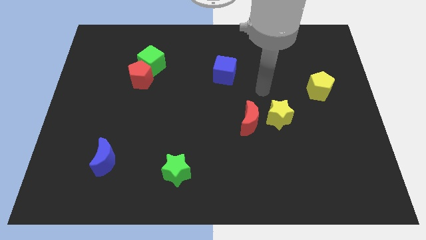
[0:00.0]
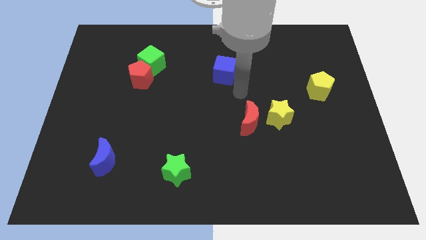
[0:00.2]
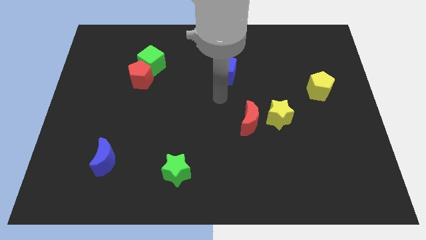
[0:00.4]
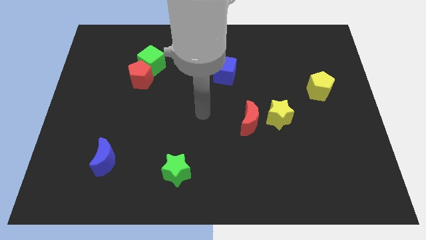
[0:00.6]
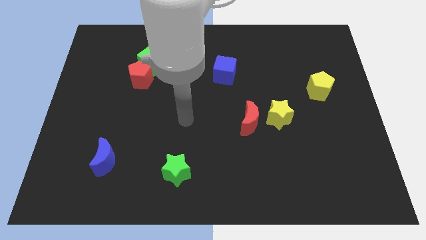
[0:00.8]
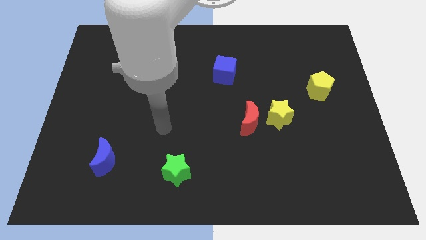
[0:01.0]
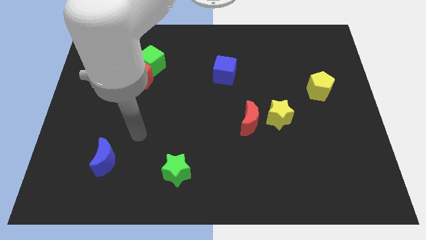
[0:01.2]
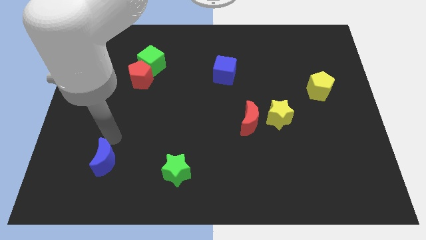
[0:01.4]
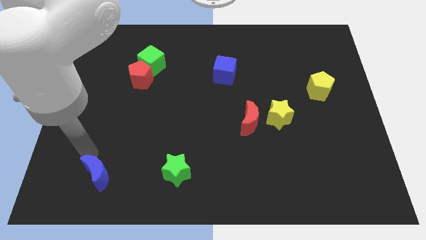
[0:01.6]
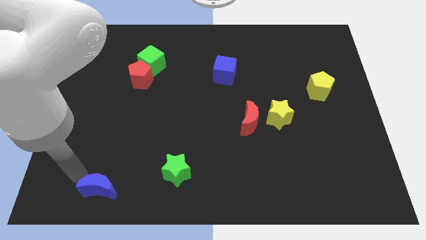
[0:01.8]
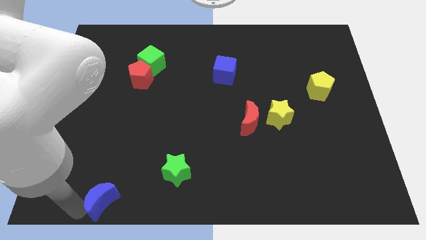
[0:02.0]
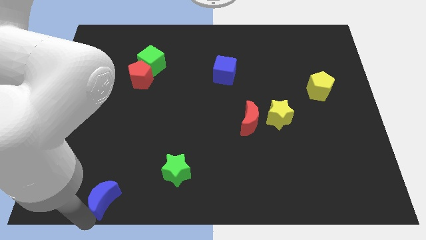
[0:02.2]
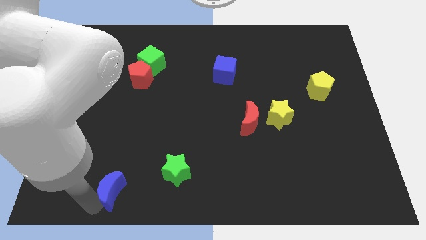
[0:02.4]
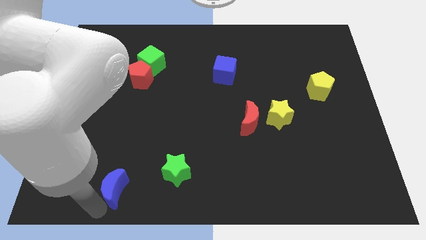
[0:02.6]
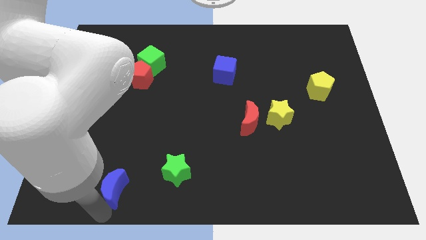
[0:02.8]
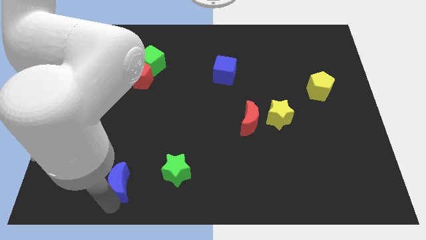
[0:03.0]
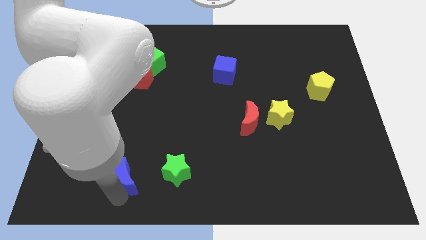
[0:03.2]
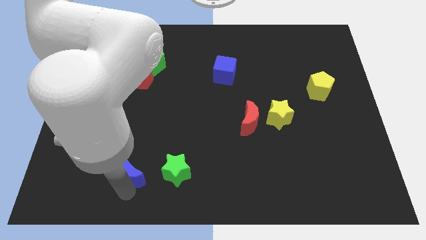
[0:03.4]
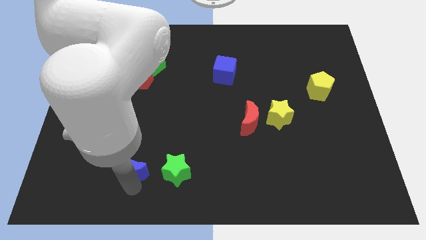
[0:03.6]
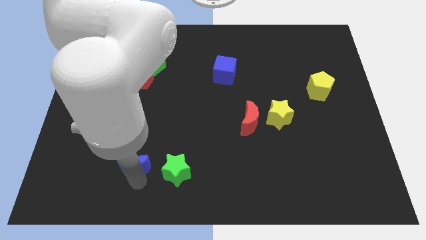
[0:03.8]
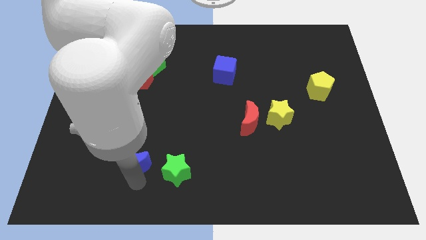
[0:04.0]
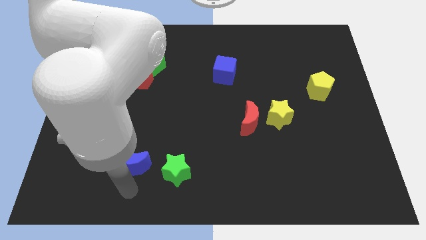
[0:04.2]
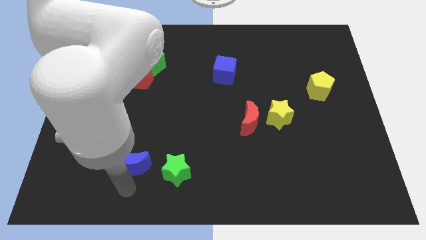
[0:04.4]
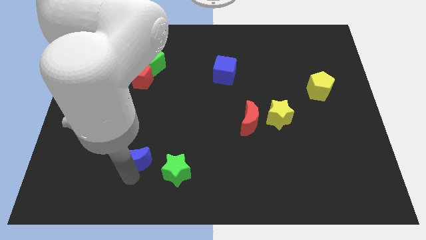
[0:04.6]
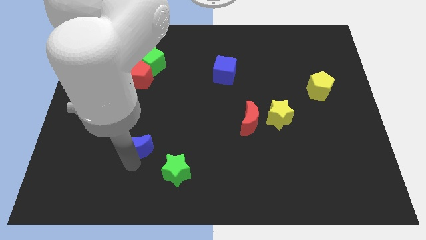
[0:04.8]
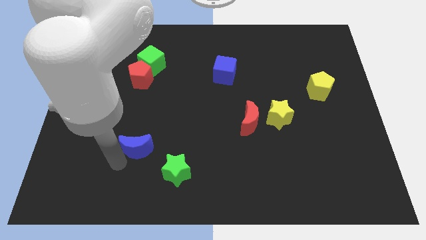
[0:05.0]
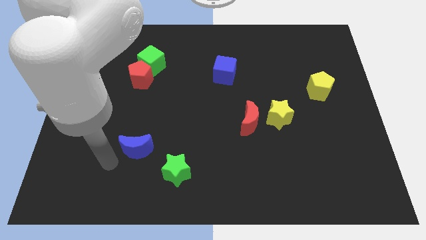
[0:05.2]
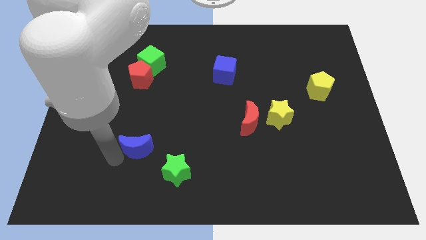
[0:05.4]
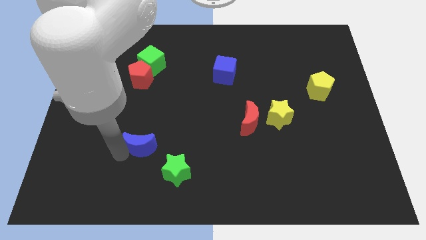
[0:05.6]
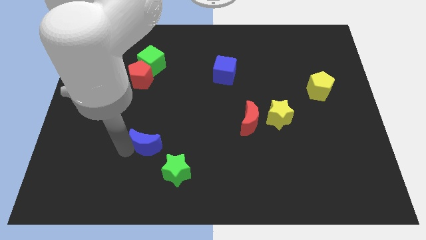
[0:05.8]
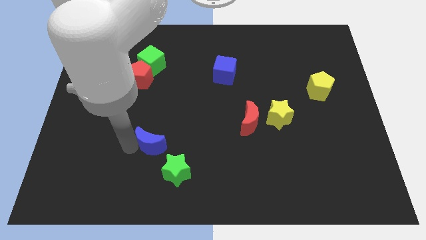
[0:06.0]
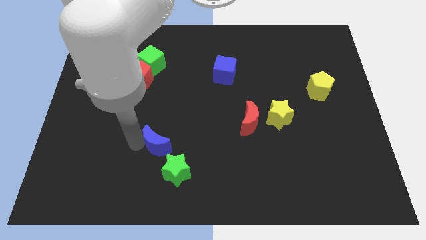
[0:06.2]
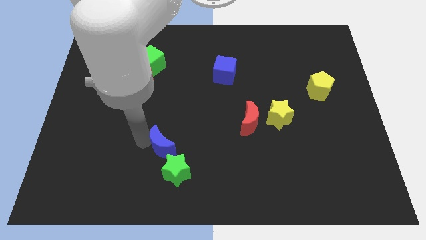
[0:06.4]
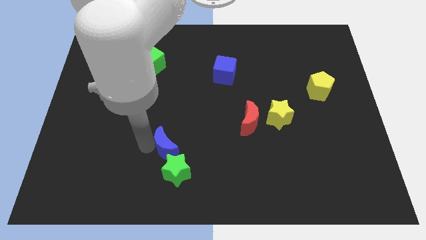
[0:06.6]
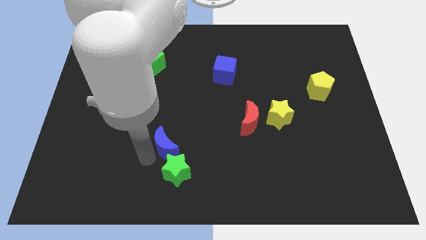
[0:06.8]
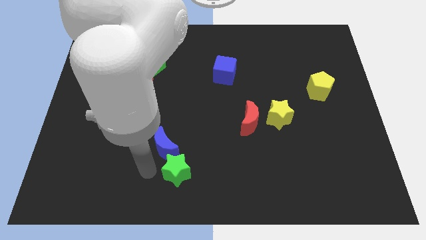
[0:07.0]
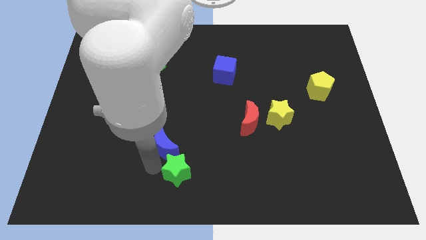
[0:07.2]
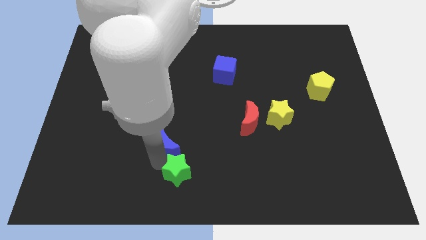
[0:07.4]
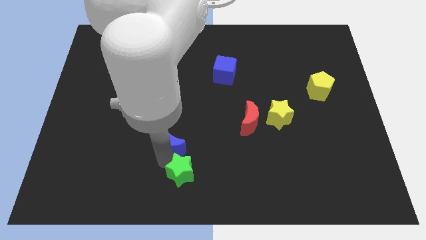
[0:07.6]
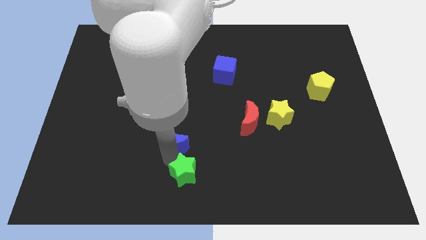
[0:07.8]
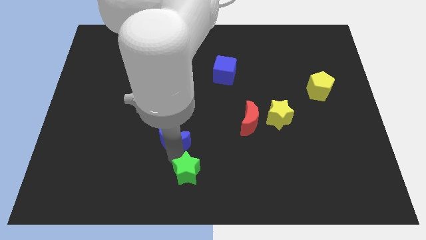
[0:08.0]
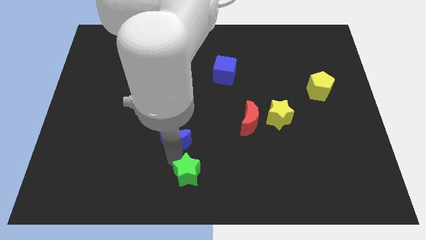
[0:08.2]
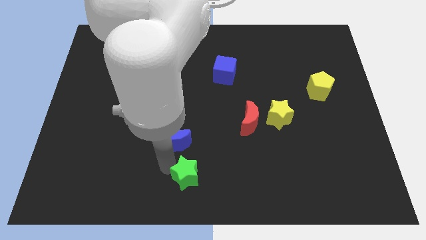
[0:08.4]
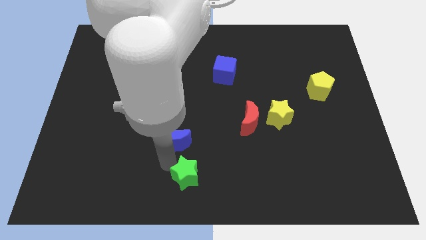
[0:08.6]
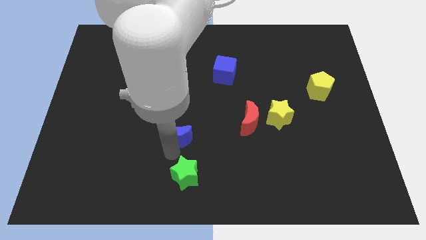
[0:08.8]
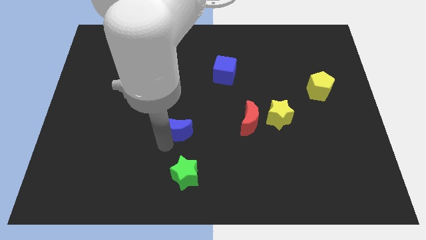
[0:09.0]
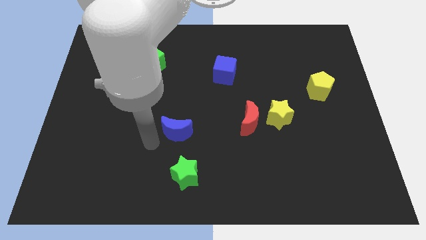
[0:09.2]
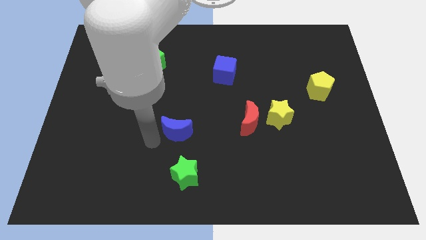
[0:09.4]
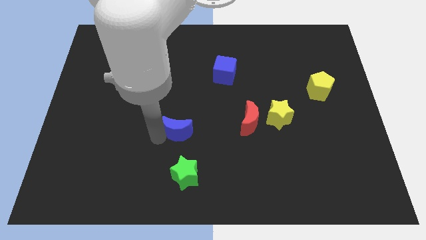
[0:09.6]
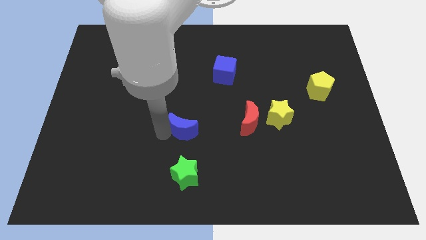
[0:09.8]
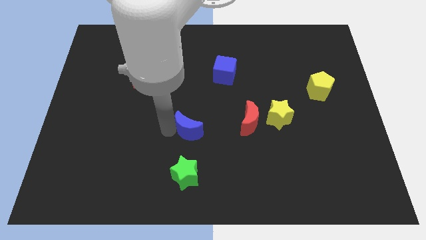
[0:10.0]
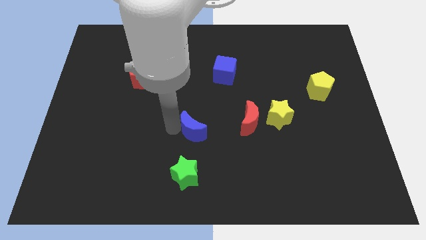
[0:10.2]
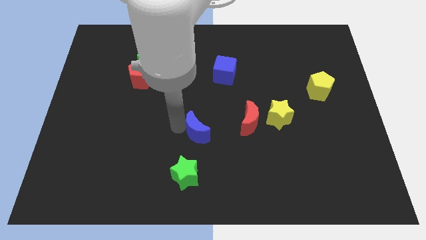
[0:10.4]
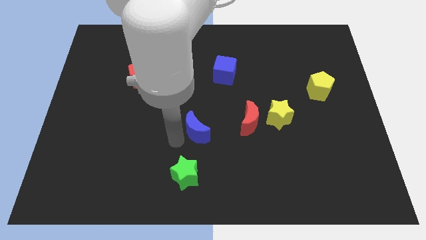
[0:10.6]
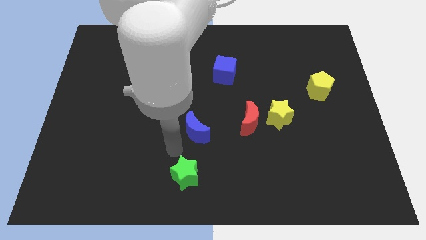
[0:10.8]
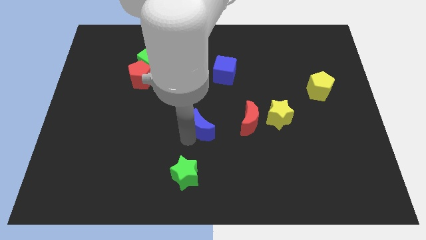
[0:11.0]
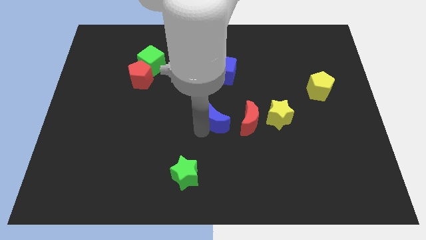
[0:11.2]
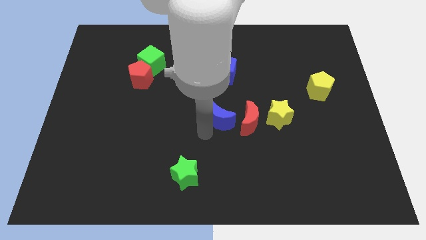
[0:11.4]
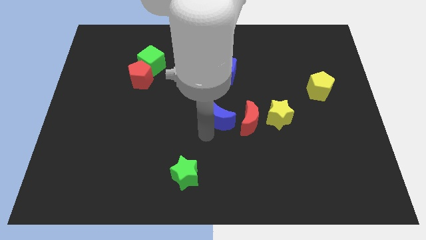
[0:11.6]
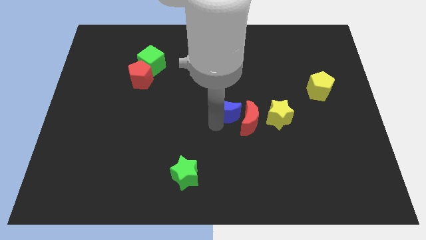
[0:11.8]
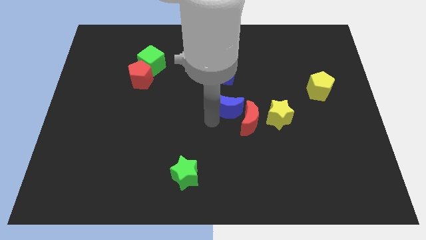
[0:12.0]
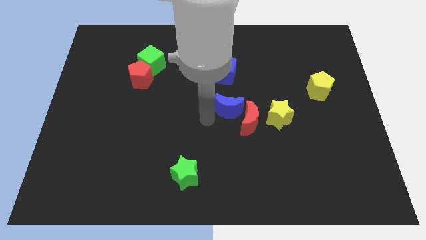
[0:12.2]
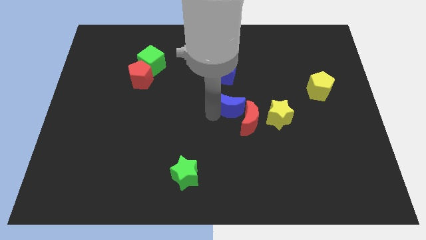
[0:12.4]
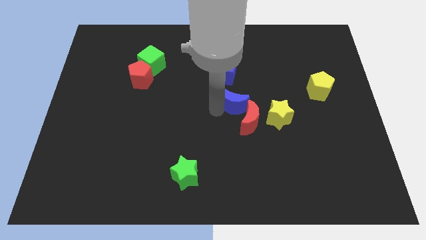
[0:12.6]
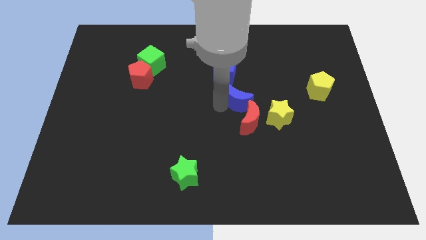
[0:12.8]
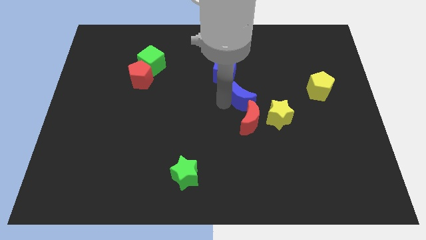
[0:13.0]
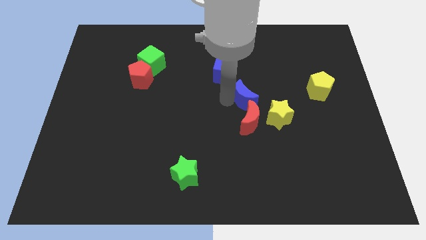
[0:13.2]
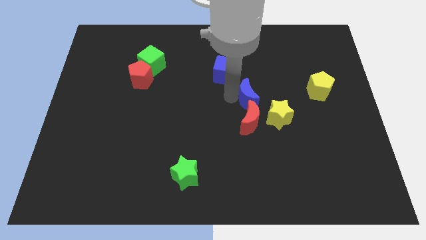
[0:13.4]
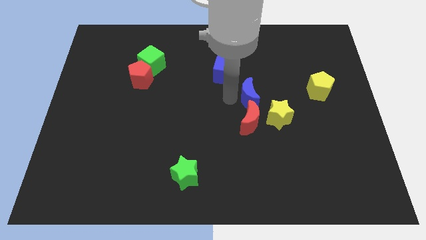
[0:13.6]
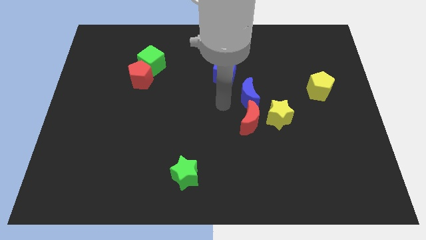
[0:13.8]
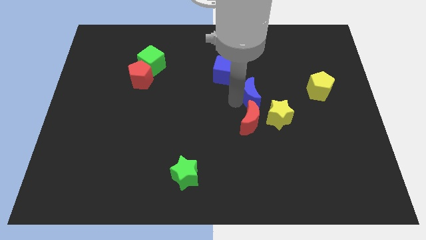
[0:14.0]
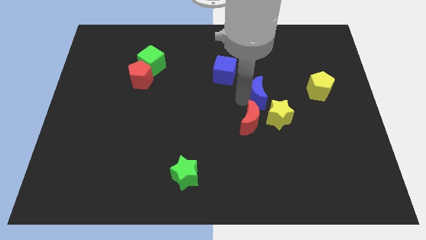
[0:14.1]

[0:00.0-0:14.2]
push the blue moon just left of the yellow pentagon

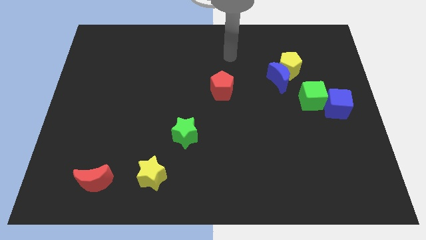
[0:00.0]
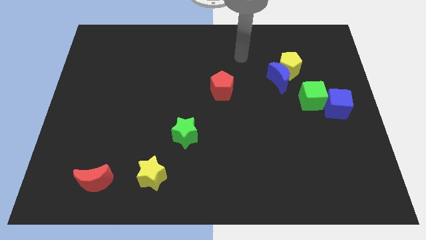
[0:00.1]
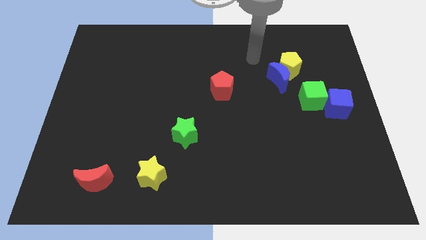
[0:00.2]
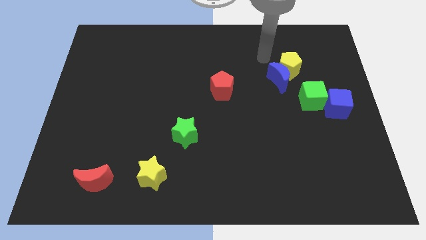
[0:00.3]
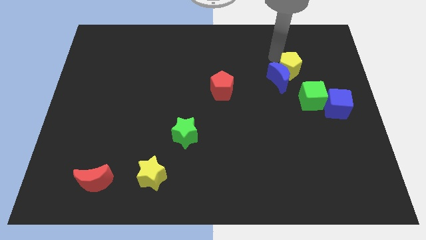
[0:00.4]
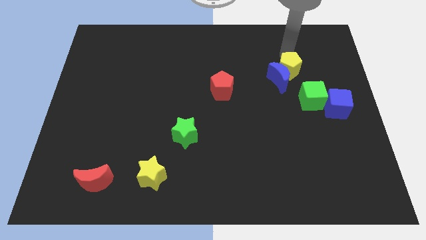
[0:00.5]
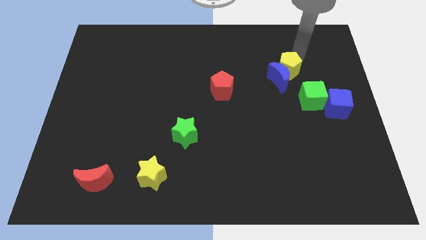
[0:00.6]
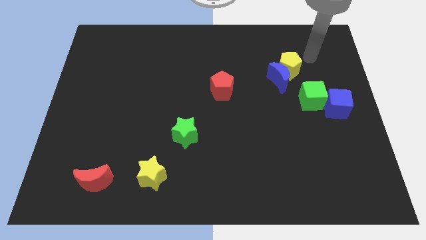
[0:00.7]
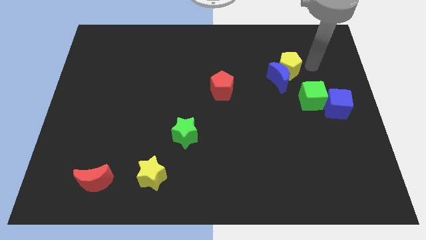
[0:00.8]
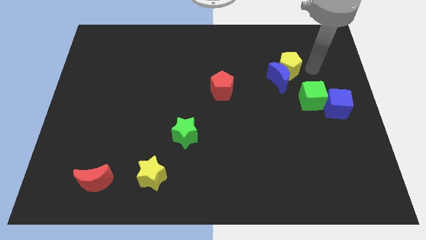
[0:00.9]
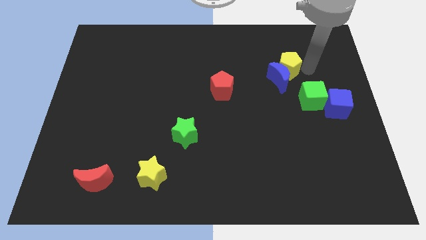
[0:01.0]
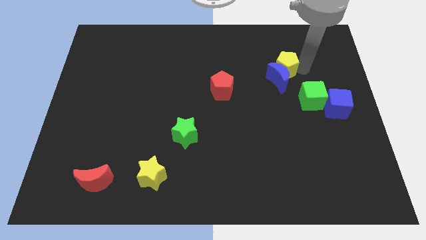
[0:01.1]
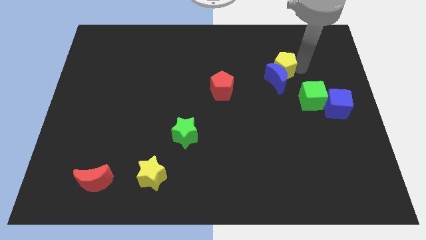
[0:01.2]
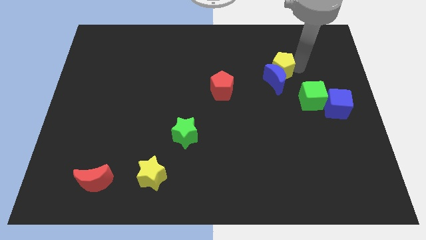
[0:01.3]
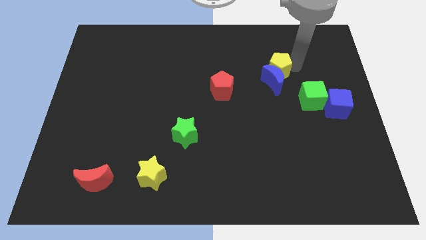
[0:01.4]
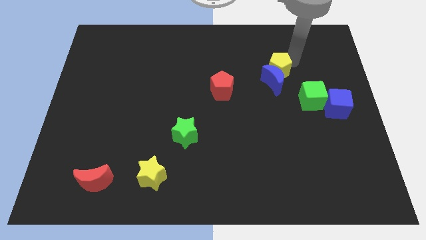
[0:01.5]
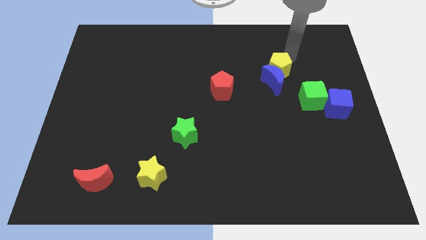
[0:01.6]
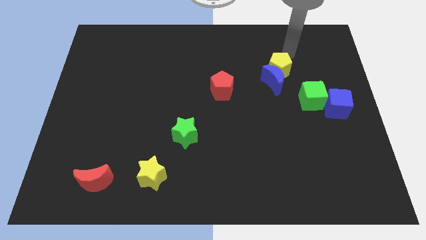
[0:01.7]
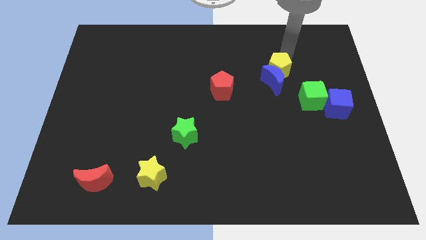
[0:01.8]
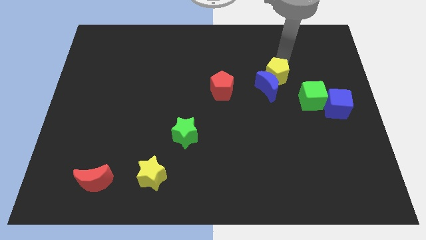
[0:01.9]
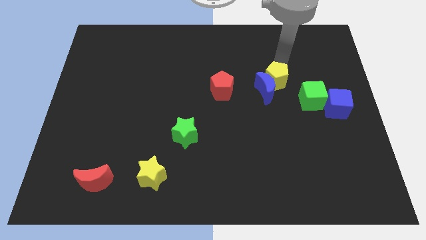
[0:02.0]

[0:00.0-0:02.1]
slide the yellow pentagon to the right of the red pentagon
